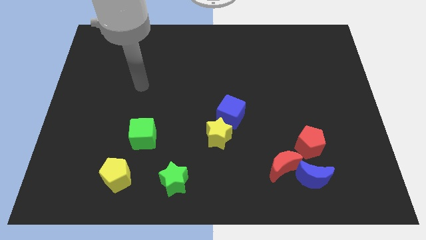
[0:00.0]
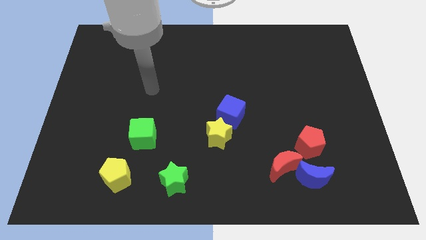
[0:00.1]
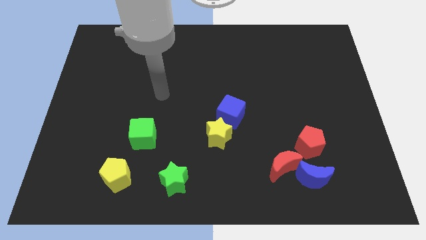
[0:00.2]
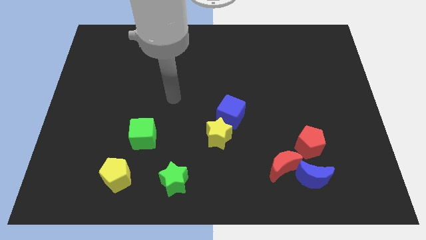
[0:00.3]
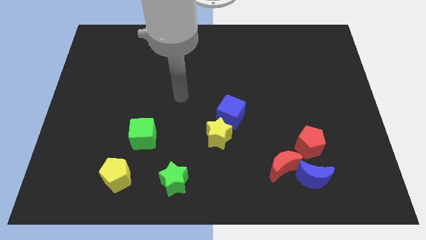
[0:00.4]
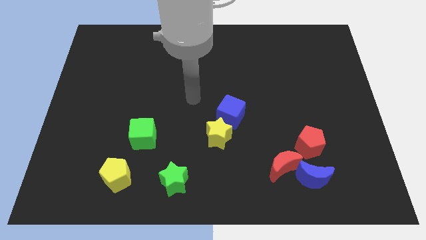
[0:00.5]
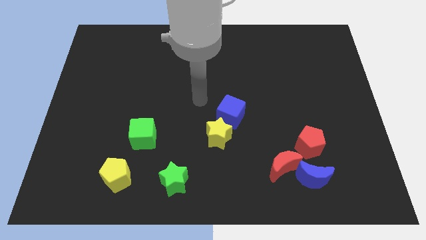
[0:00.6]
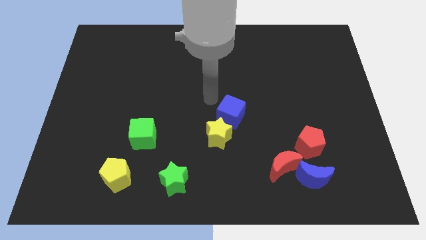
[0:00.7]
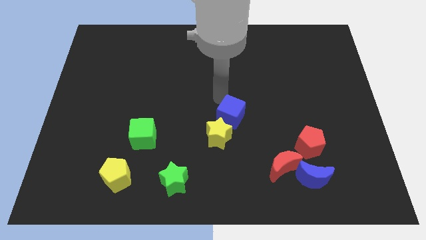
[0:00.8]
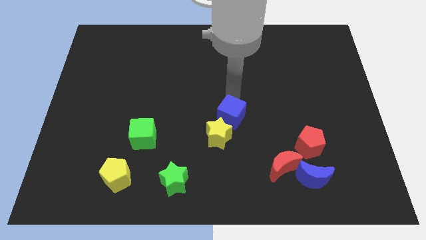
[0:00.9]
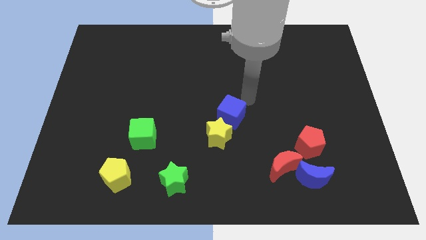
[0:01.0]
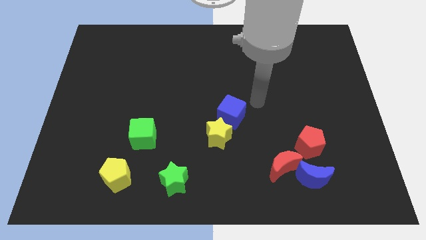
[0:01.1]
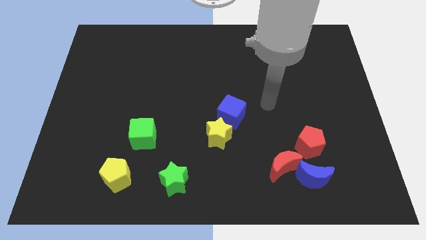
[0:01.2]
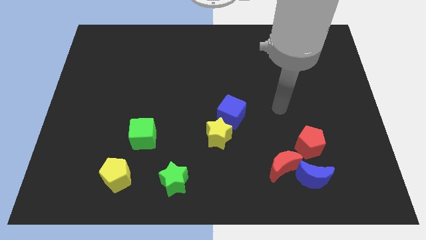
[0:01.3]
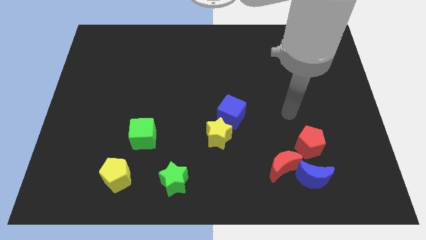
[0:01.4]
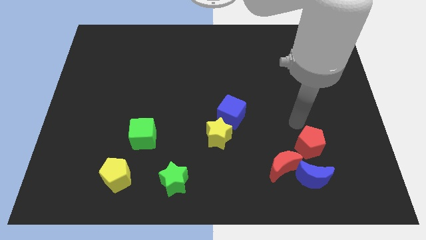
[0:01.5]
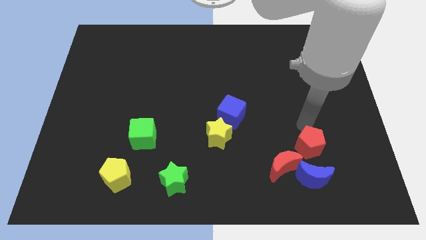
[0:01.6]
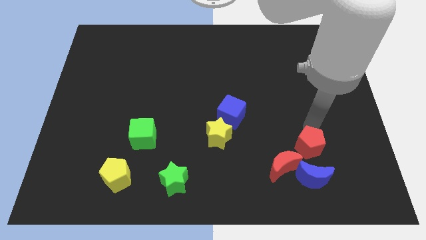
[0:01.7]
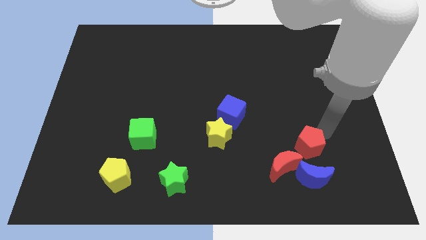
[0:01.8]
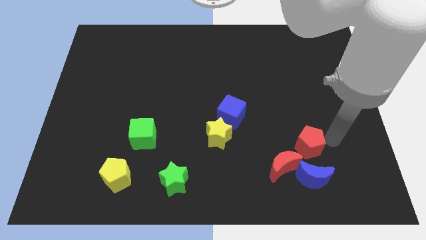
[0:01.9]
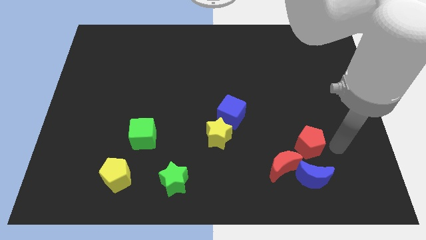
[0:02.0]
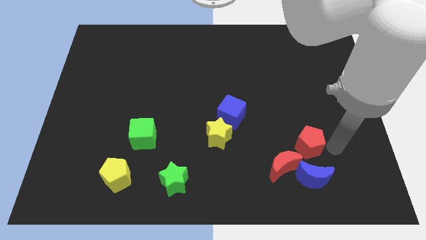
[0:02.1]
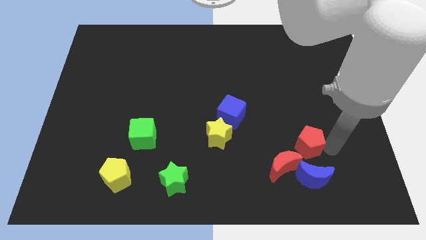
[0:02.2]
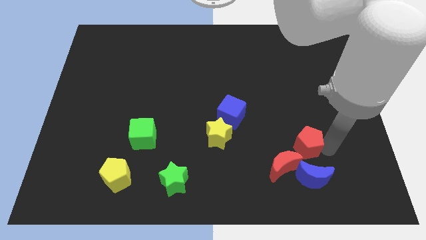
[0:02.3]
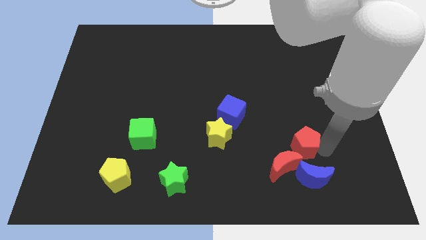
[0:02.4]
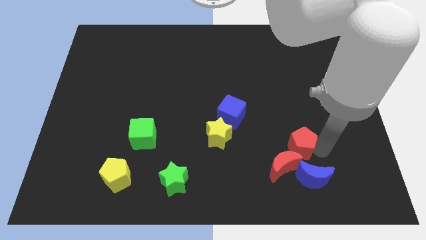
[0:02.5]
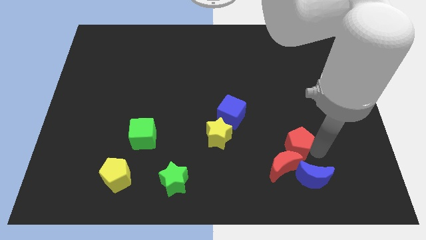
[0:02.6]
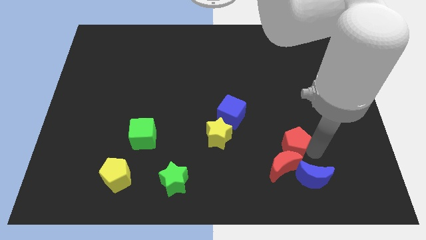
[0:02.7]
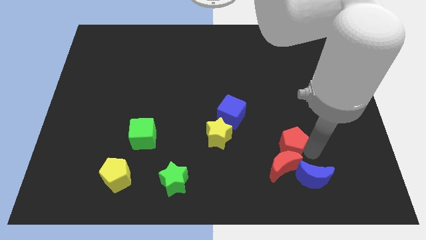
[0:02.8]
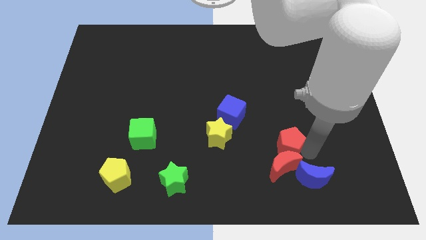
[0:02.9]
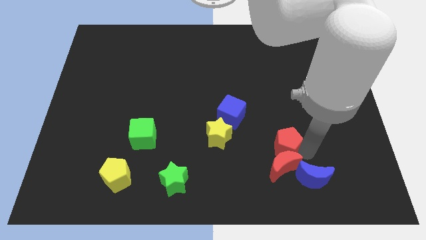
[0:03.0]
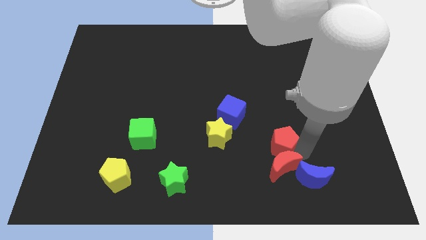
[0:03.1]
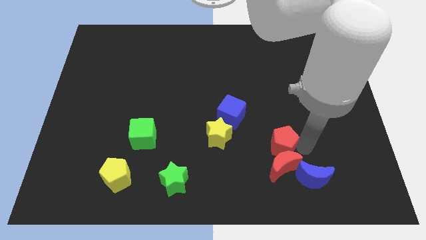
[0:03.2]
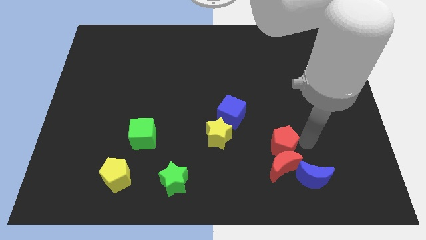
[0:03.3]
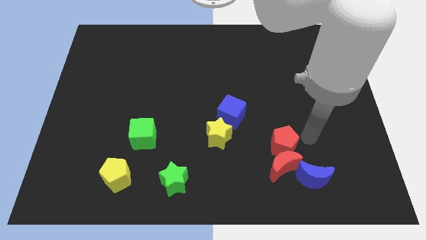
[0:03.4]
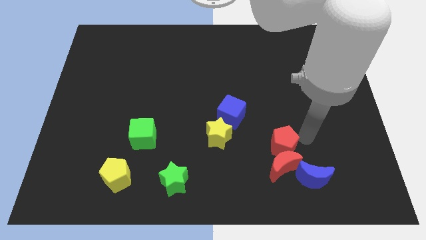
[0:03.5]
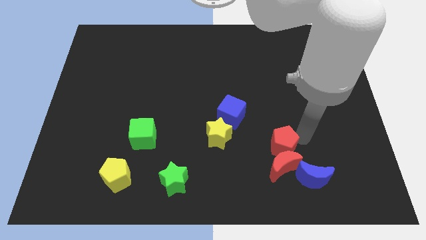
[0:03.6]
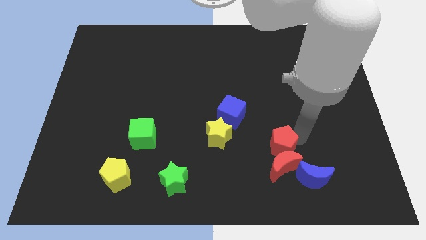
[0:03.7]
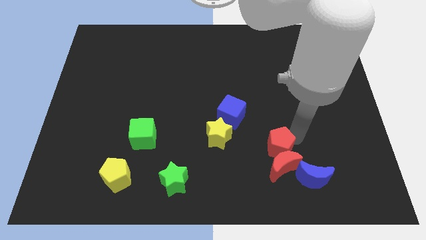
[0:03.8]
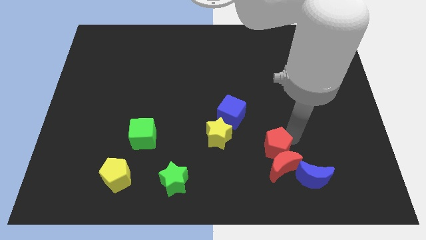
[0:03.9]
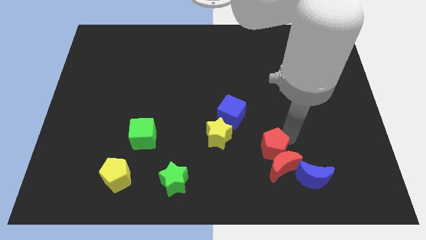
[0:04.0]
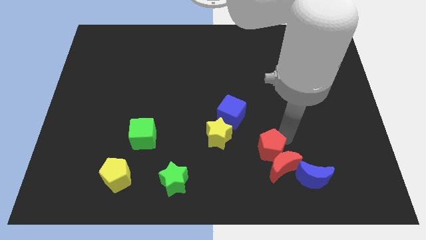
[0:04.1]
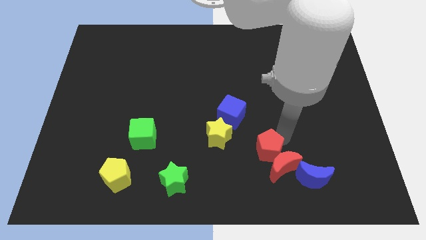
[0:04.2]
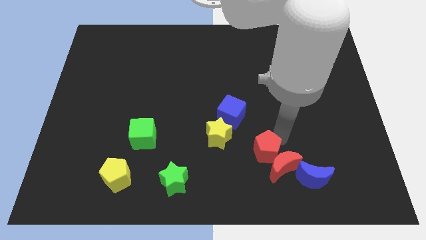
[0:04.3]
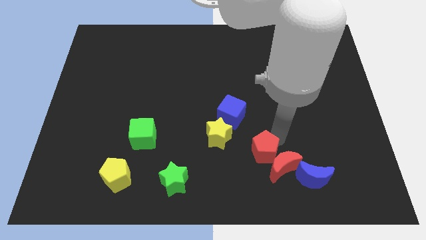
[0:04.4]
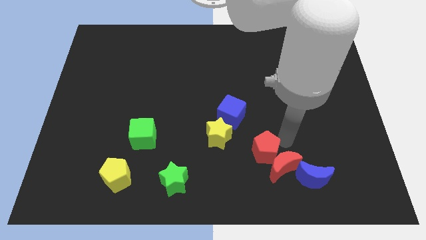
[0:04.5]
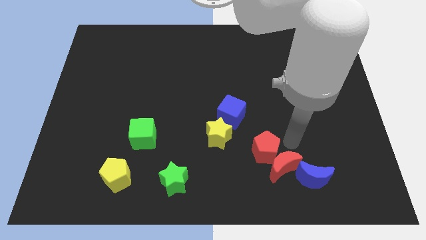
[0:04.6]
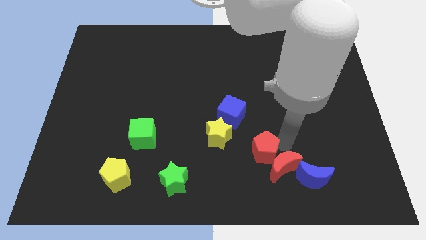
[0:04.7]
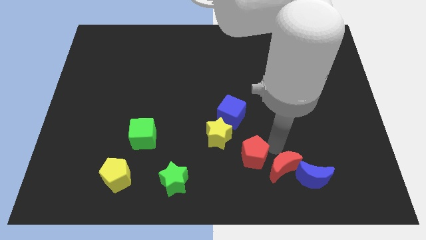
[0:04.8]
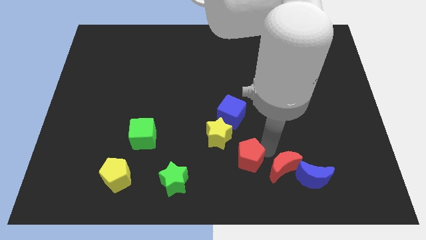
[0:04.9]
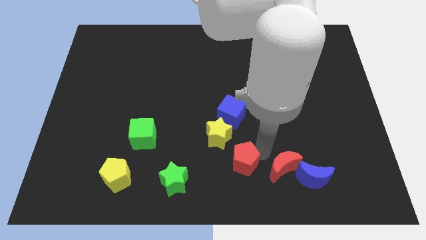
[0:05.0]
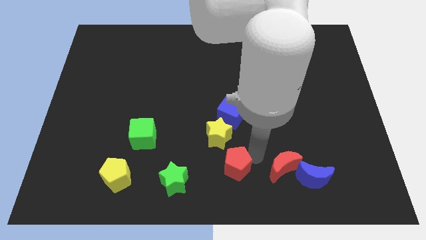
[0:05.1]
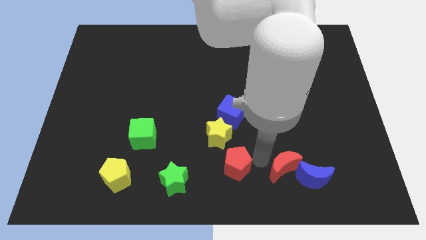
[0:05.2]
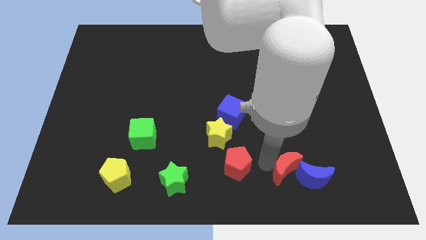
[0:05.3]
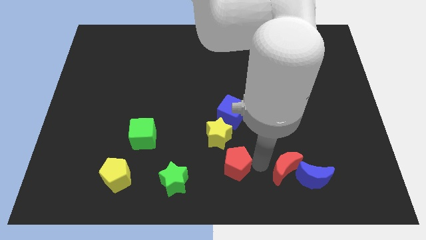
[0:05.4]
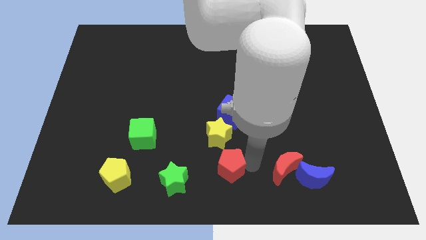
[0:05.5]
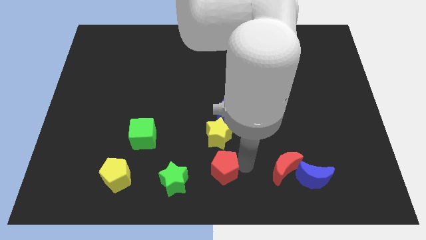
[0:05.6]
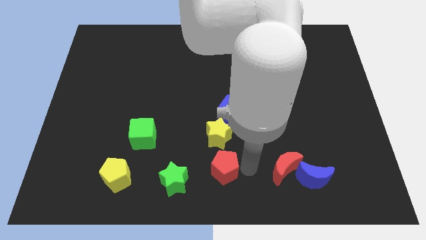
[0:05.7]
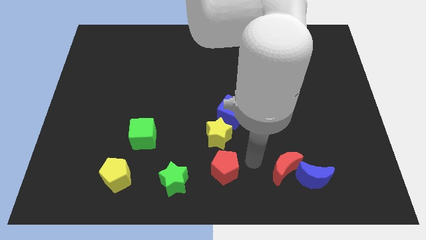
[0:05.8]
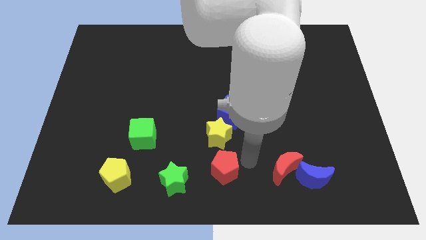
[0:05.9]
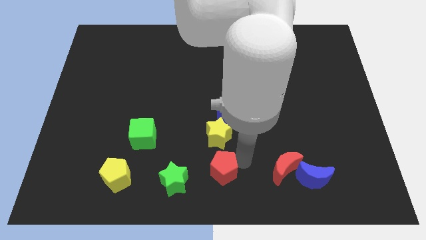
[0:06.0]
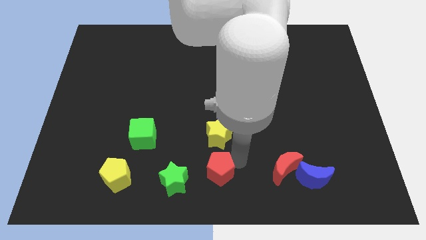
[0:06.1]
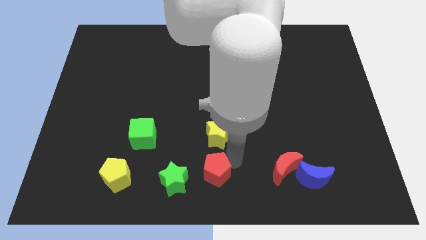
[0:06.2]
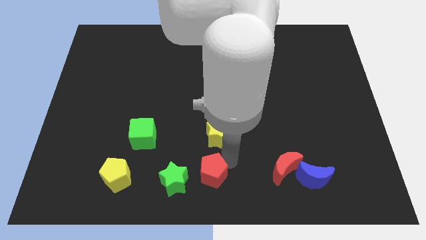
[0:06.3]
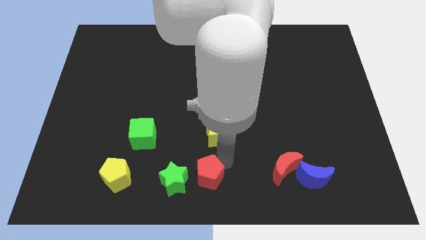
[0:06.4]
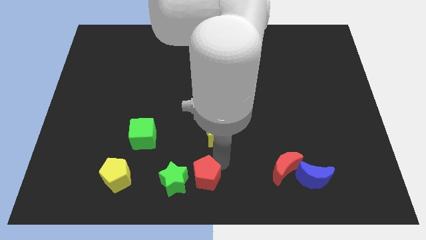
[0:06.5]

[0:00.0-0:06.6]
slide the red pentagon next to the green star

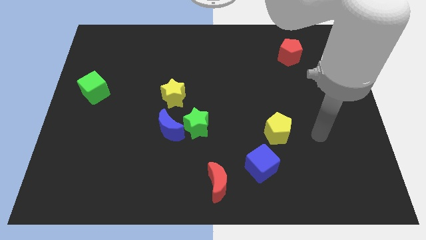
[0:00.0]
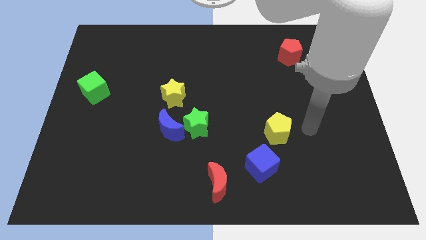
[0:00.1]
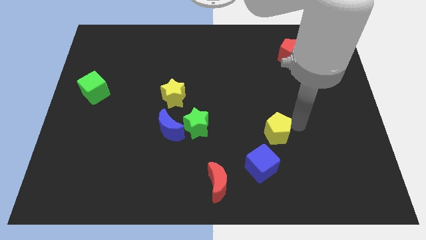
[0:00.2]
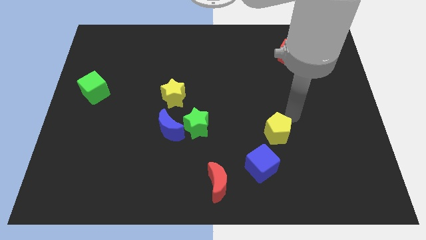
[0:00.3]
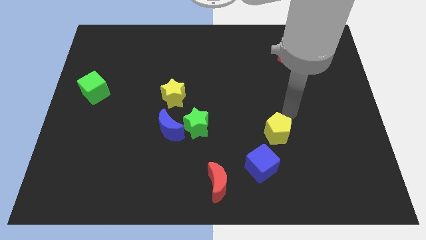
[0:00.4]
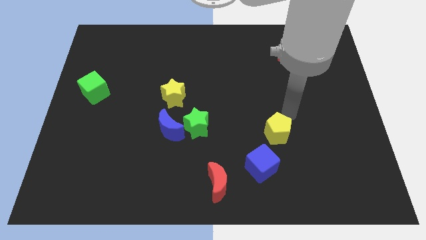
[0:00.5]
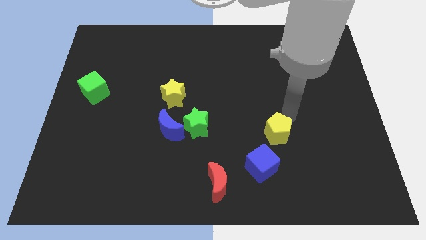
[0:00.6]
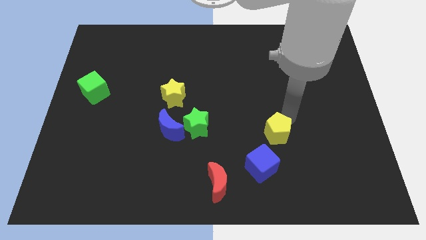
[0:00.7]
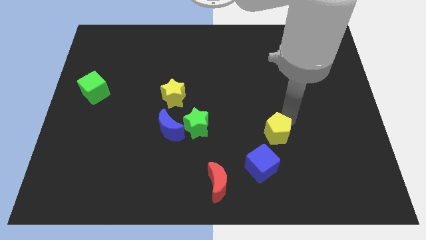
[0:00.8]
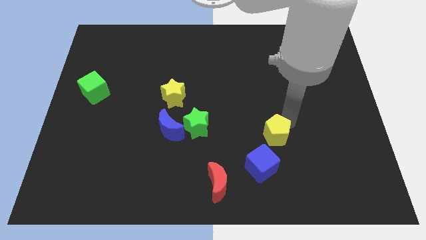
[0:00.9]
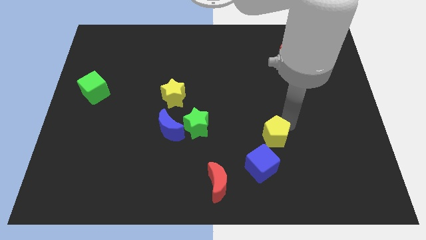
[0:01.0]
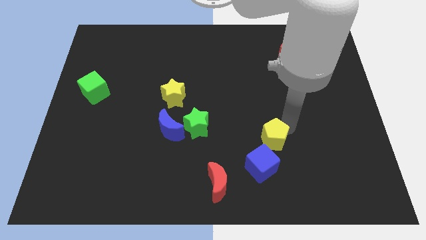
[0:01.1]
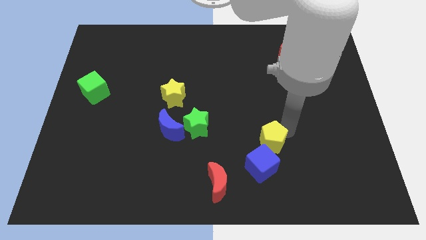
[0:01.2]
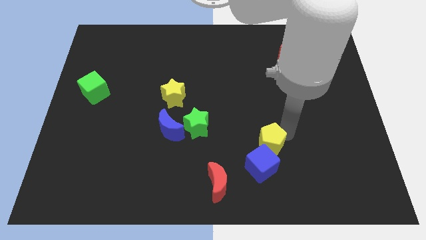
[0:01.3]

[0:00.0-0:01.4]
move the yellow pentagon towards the blue cube
